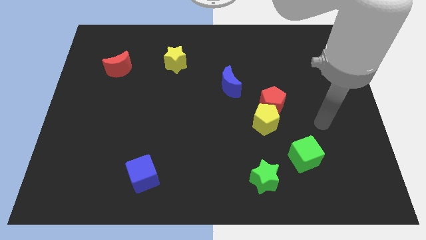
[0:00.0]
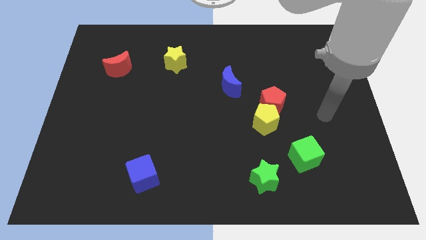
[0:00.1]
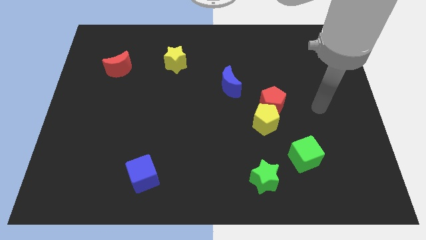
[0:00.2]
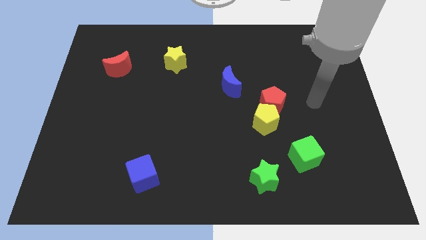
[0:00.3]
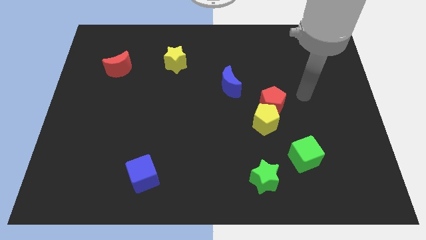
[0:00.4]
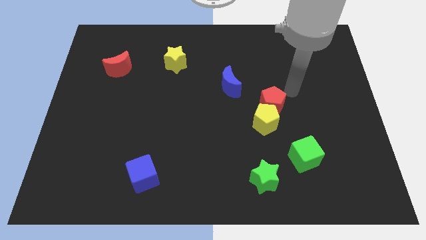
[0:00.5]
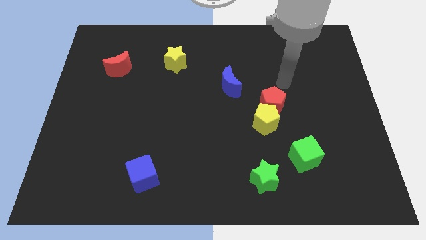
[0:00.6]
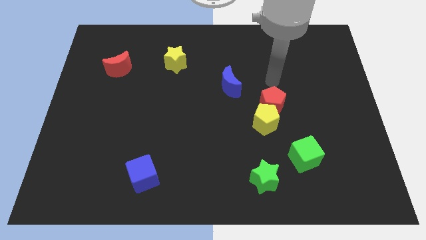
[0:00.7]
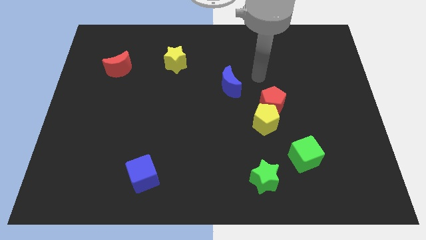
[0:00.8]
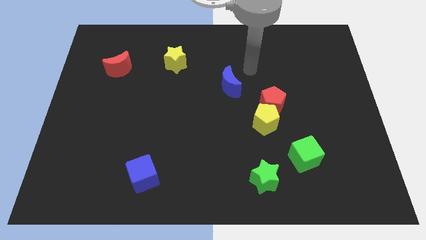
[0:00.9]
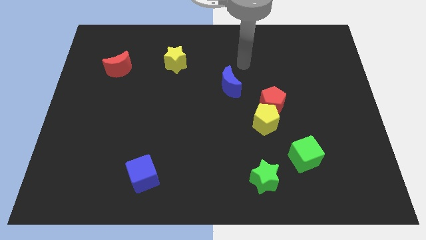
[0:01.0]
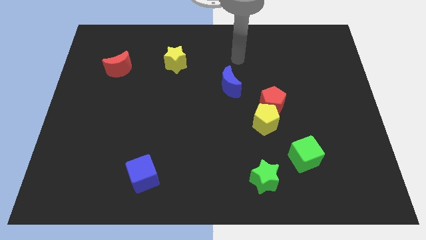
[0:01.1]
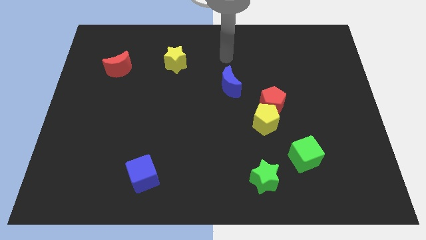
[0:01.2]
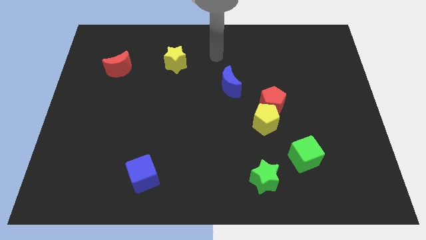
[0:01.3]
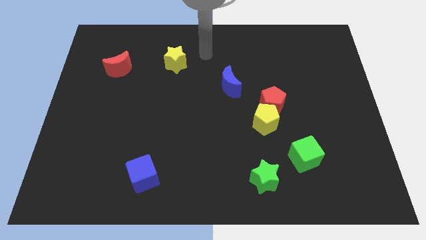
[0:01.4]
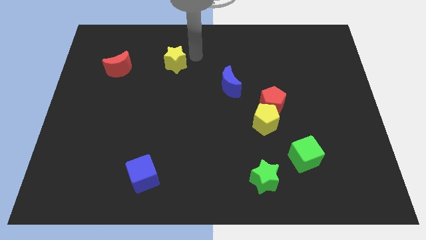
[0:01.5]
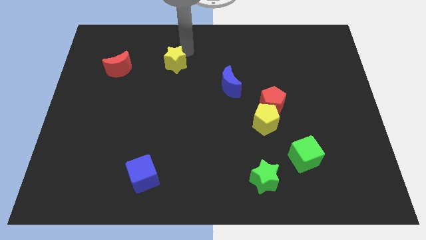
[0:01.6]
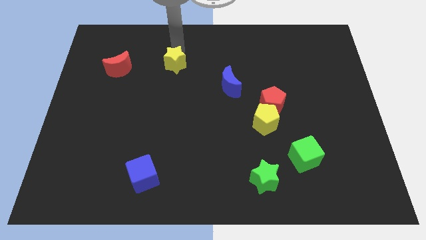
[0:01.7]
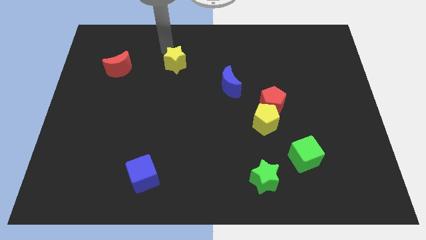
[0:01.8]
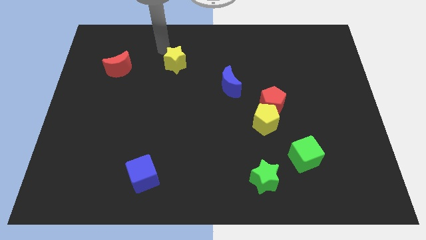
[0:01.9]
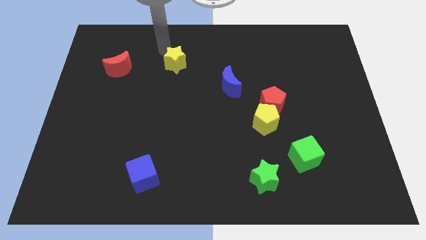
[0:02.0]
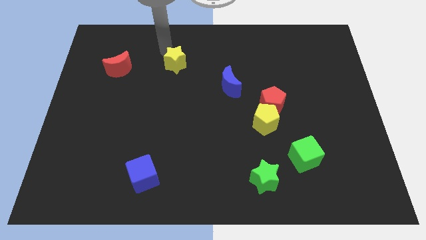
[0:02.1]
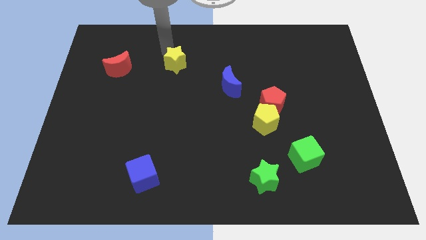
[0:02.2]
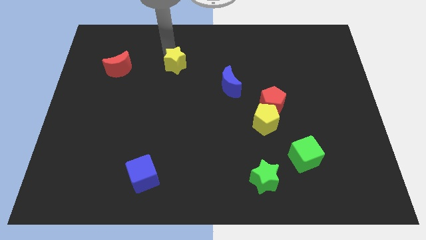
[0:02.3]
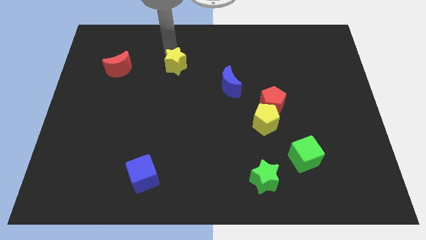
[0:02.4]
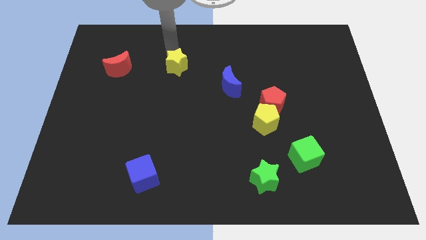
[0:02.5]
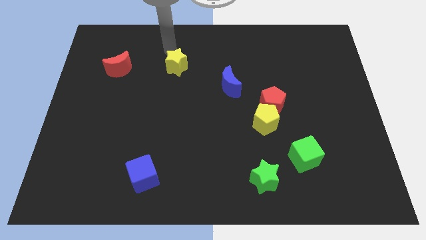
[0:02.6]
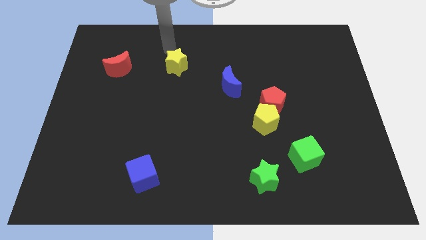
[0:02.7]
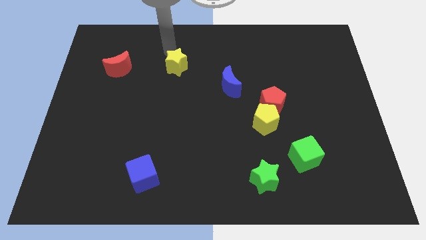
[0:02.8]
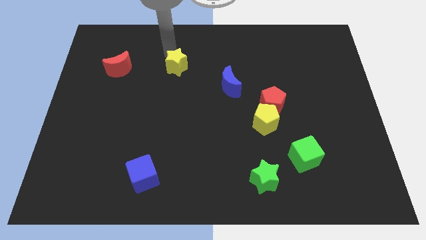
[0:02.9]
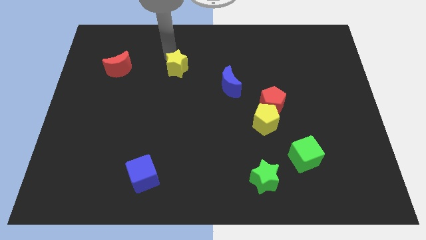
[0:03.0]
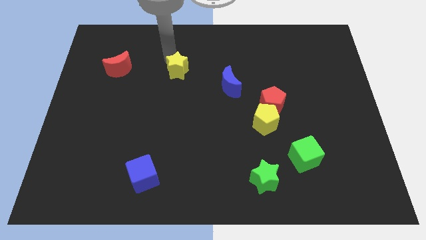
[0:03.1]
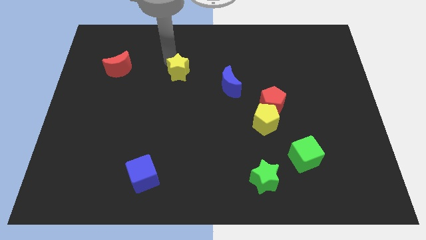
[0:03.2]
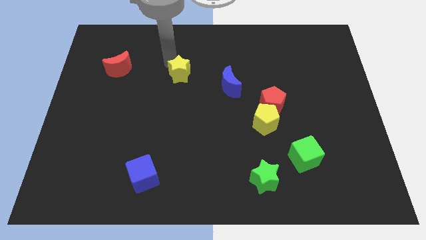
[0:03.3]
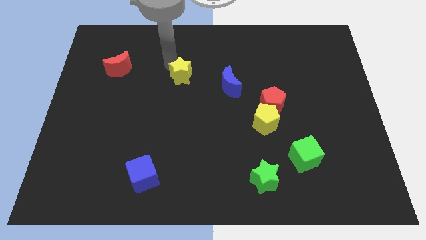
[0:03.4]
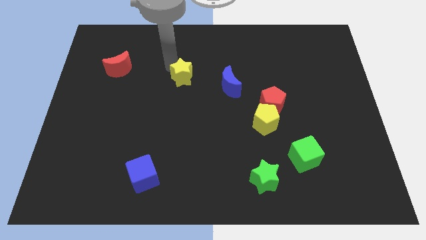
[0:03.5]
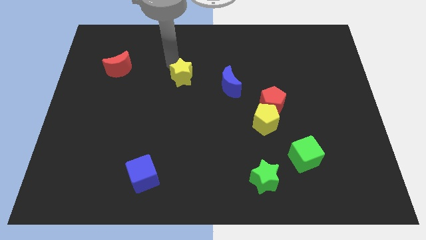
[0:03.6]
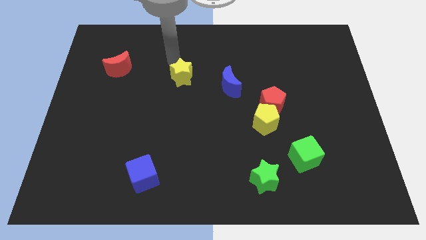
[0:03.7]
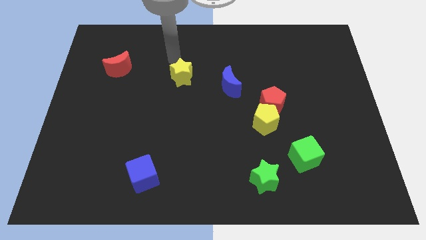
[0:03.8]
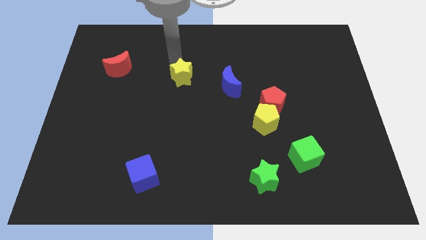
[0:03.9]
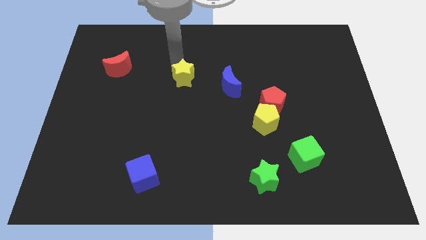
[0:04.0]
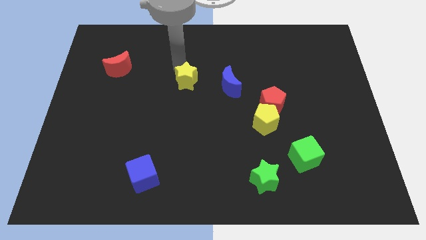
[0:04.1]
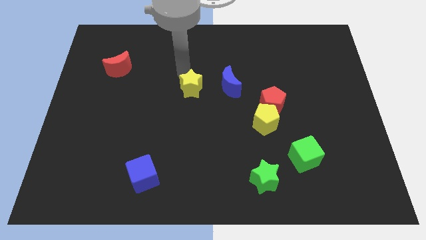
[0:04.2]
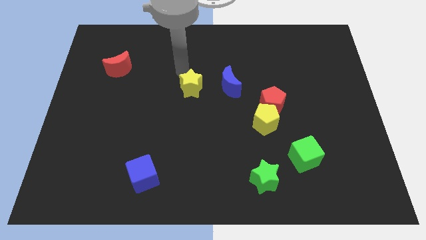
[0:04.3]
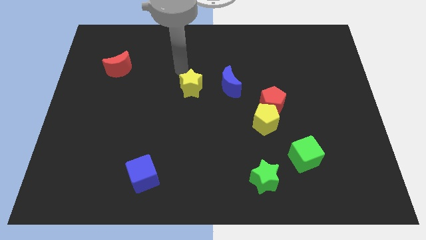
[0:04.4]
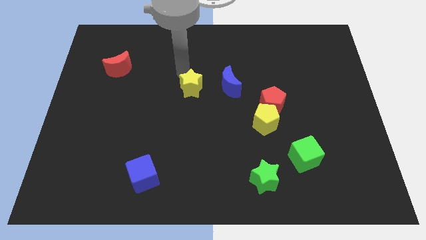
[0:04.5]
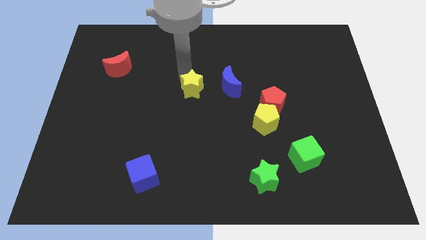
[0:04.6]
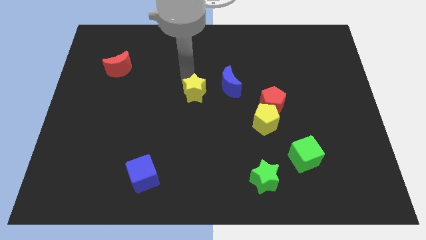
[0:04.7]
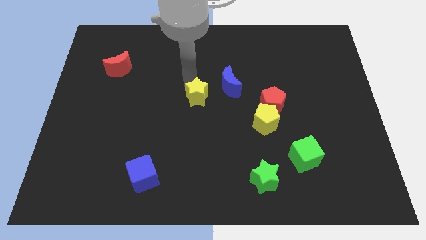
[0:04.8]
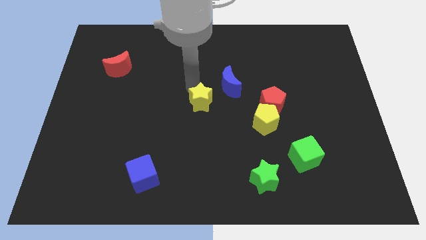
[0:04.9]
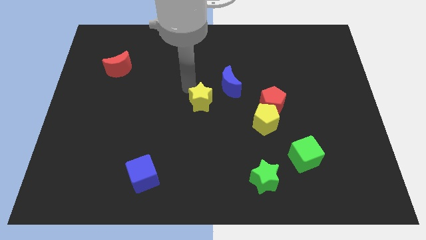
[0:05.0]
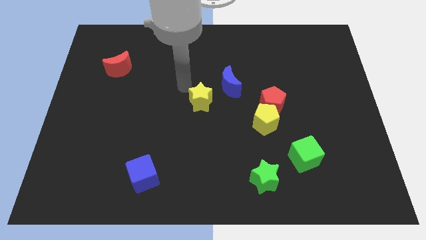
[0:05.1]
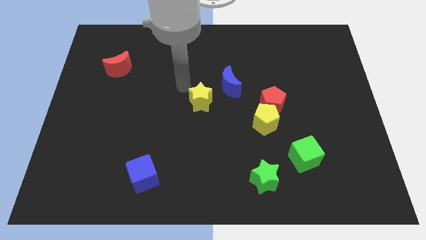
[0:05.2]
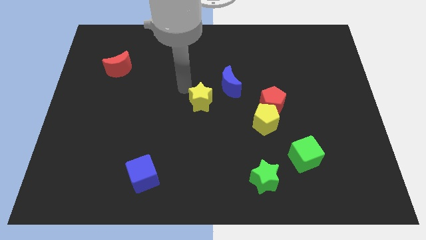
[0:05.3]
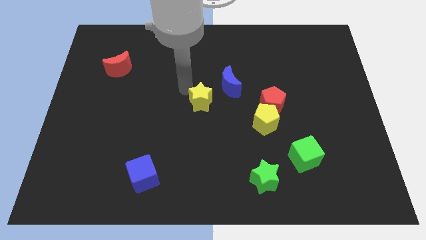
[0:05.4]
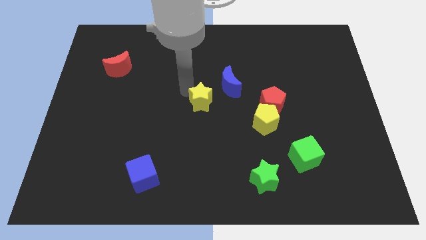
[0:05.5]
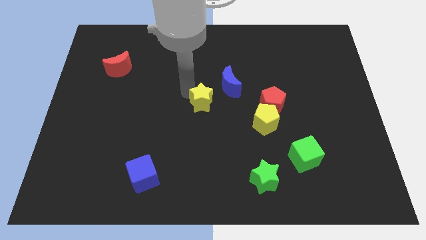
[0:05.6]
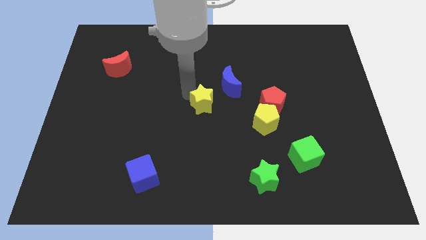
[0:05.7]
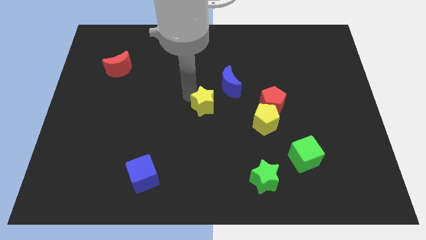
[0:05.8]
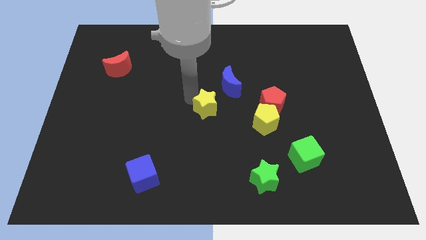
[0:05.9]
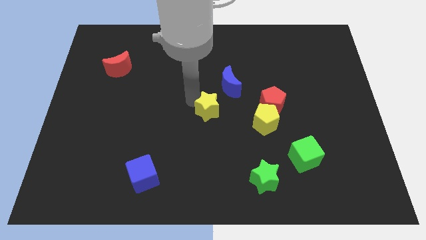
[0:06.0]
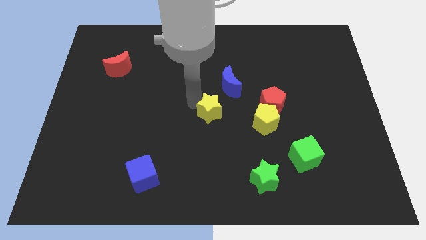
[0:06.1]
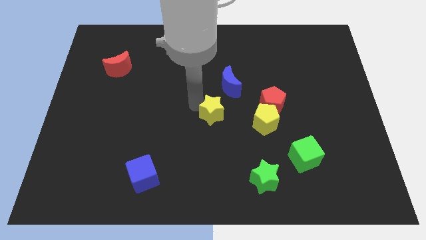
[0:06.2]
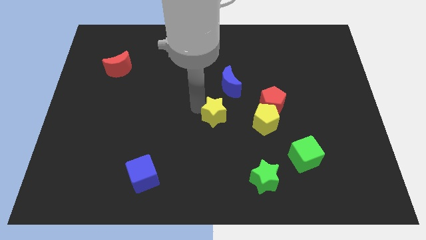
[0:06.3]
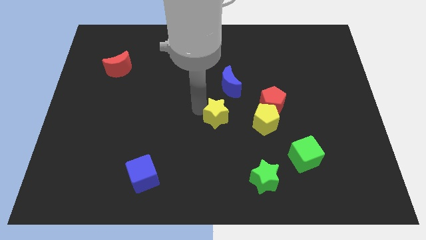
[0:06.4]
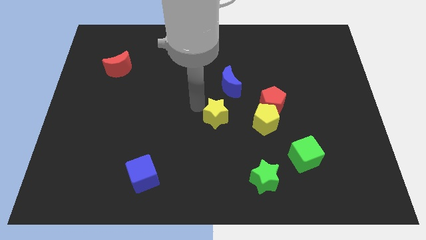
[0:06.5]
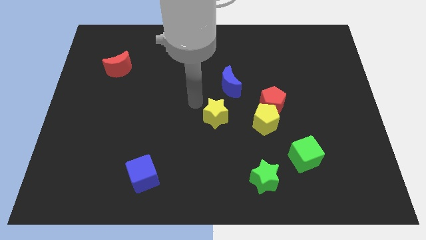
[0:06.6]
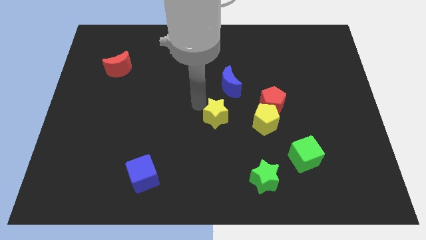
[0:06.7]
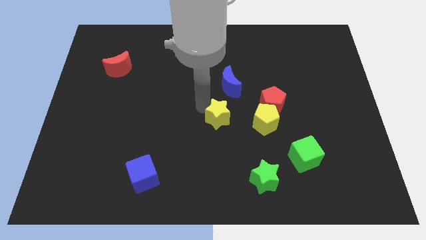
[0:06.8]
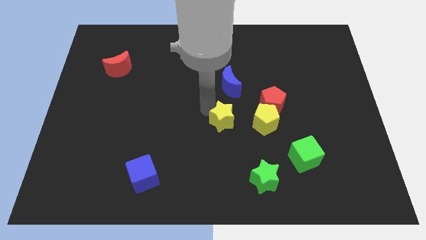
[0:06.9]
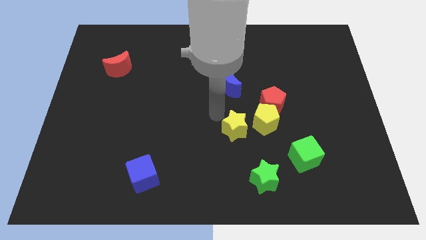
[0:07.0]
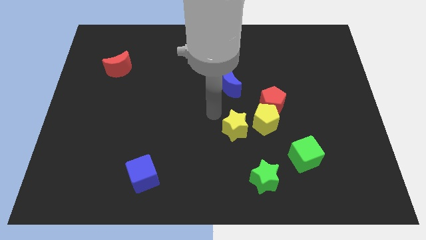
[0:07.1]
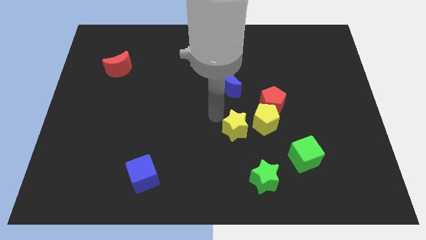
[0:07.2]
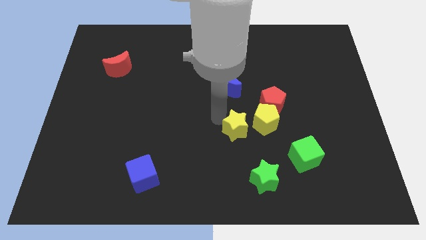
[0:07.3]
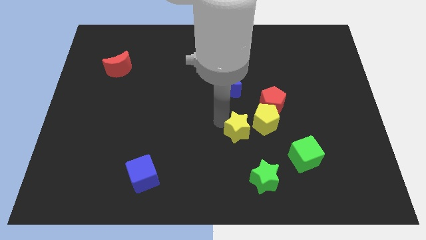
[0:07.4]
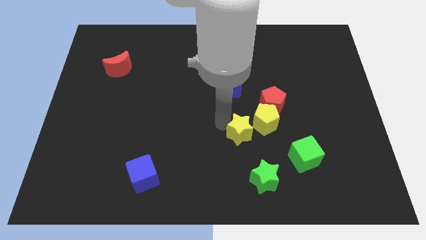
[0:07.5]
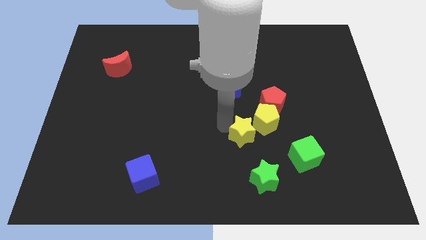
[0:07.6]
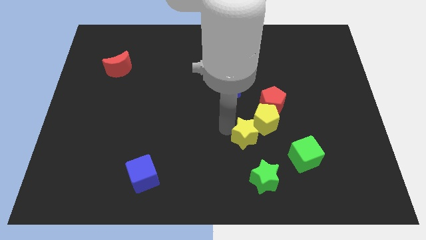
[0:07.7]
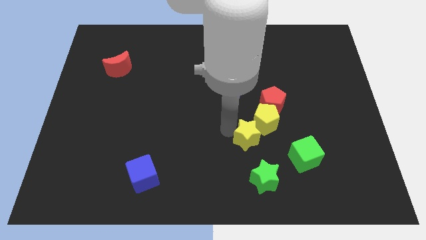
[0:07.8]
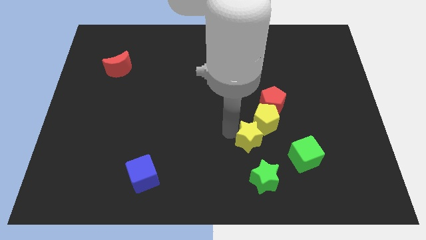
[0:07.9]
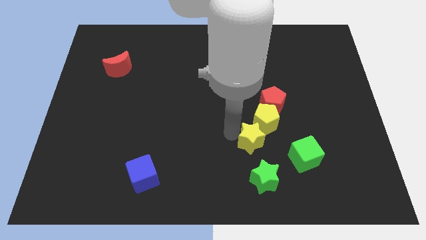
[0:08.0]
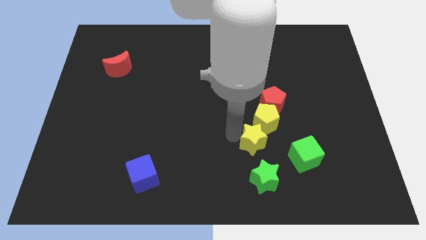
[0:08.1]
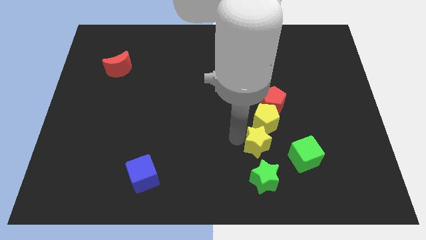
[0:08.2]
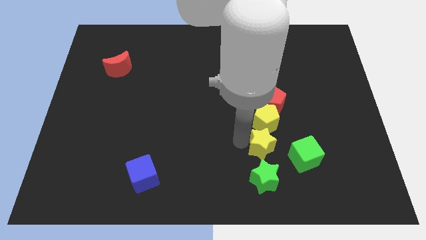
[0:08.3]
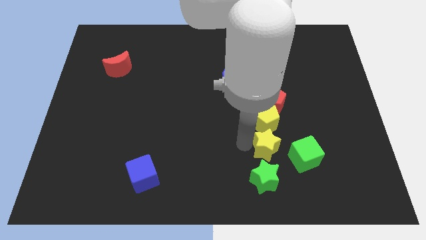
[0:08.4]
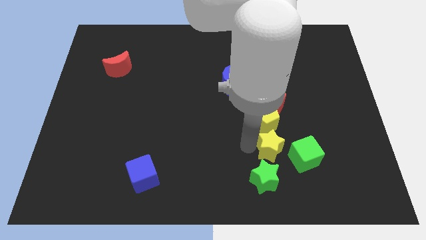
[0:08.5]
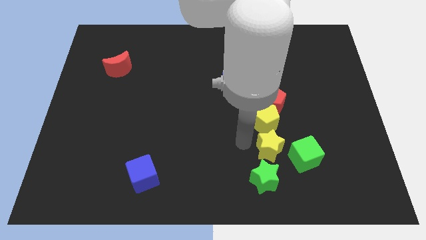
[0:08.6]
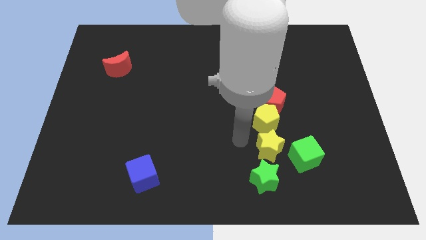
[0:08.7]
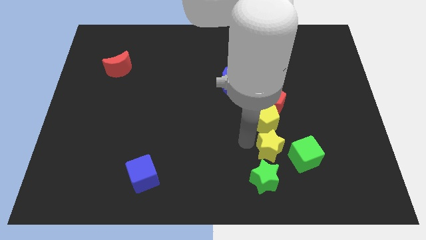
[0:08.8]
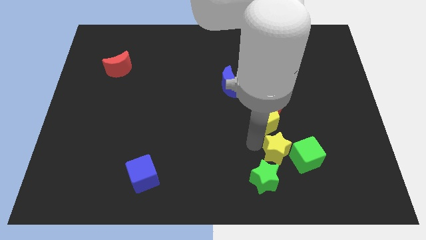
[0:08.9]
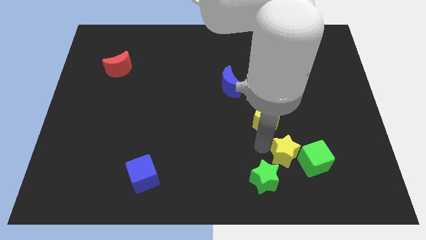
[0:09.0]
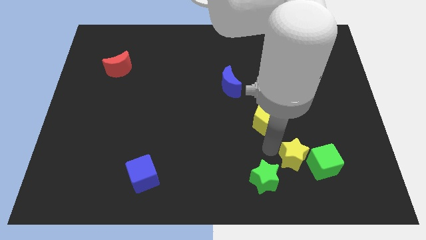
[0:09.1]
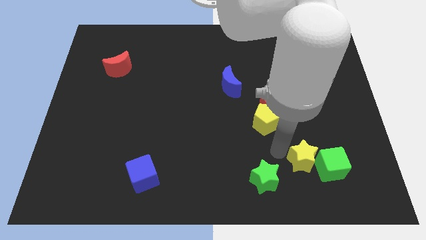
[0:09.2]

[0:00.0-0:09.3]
move the yellow star next to the green cube
